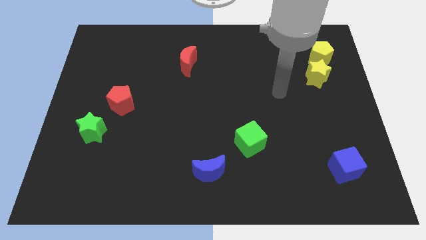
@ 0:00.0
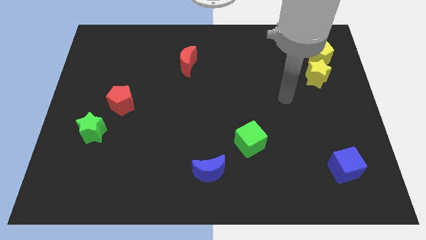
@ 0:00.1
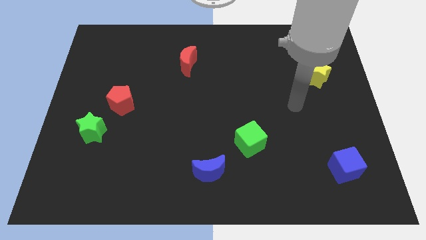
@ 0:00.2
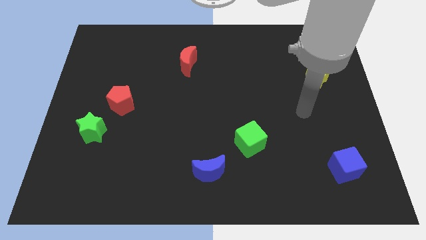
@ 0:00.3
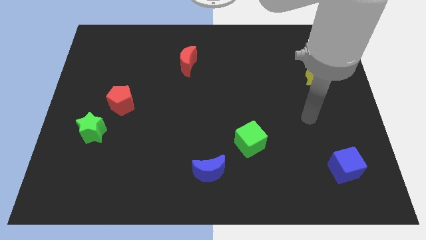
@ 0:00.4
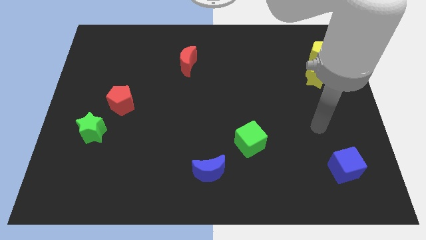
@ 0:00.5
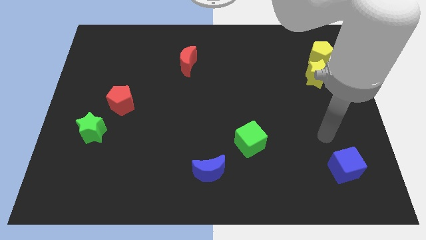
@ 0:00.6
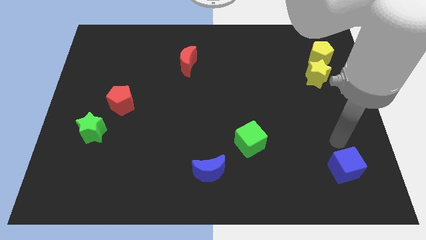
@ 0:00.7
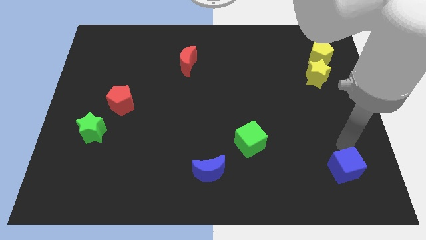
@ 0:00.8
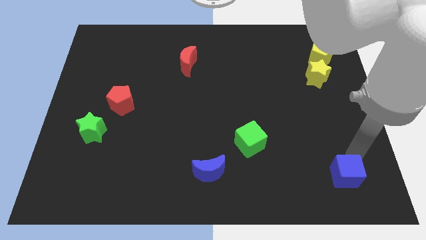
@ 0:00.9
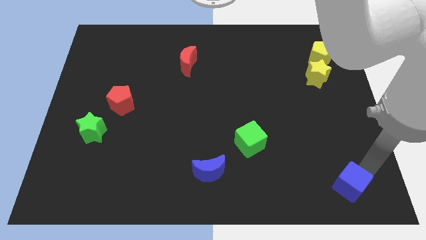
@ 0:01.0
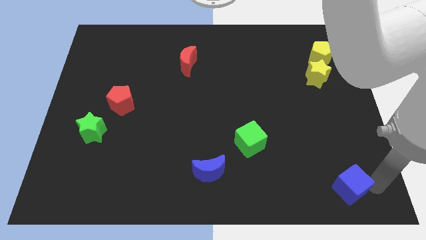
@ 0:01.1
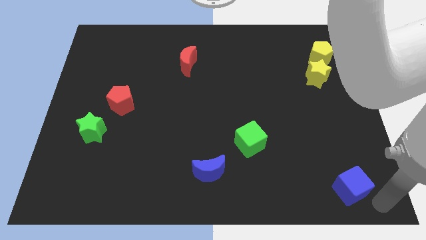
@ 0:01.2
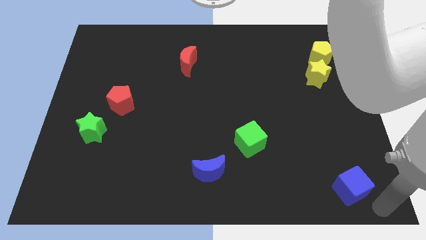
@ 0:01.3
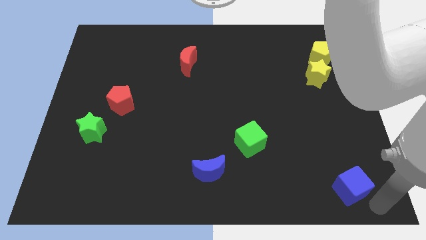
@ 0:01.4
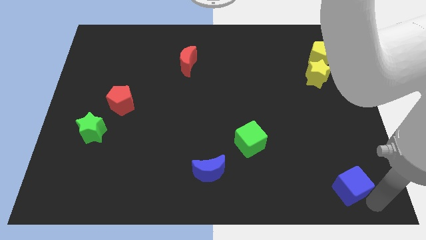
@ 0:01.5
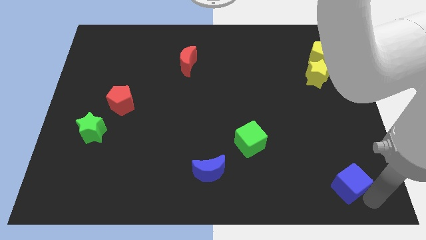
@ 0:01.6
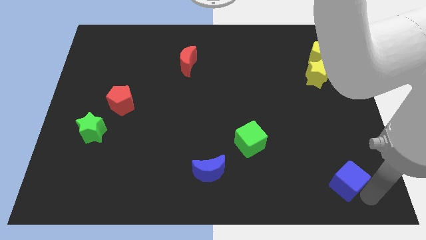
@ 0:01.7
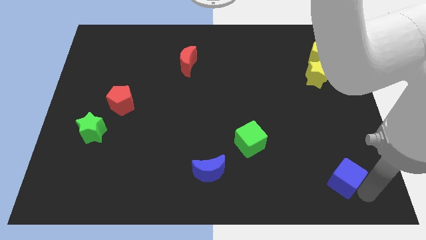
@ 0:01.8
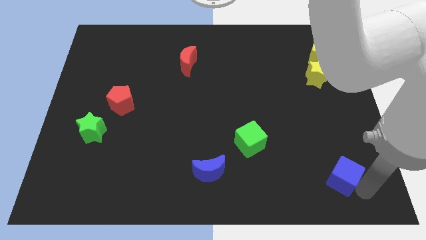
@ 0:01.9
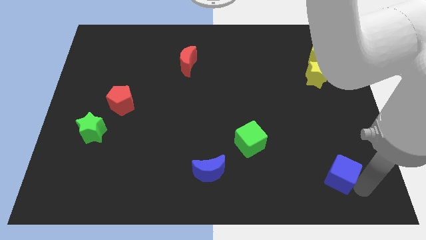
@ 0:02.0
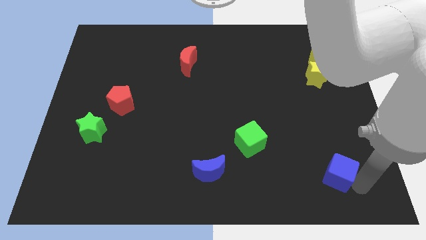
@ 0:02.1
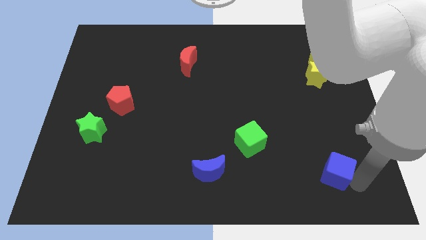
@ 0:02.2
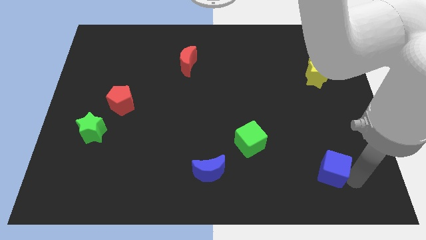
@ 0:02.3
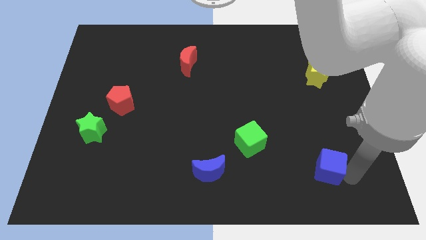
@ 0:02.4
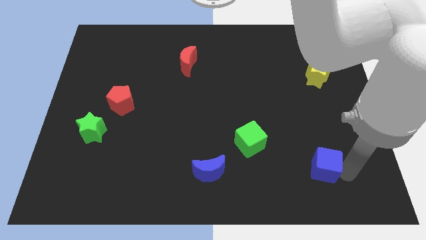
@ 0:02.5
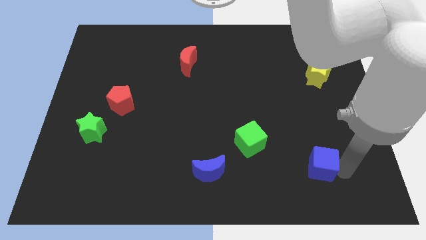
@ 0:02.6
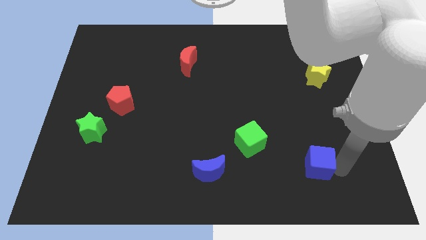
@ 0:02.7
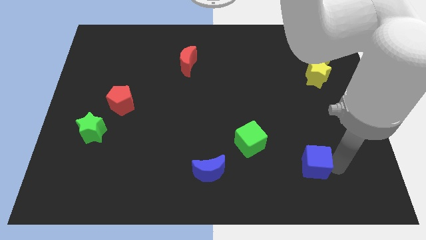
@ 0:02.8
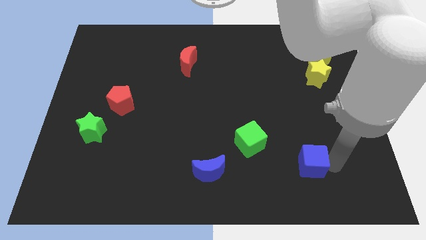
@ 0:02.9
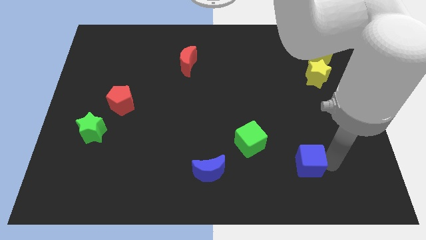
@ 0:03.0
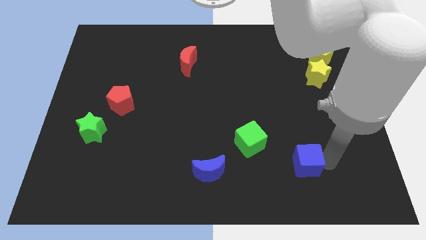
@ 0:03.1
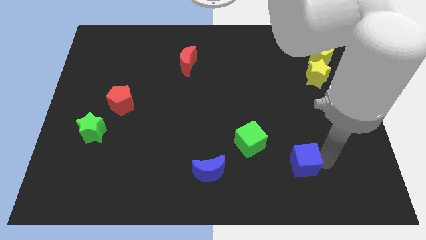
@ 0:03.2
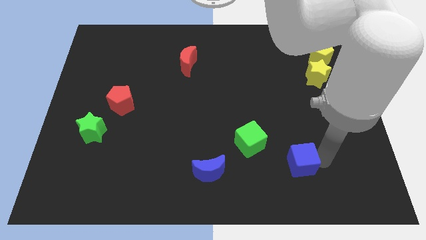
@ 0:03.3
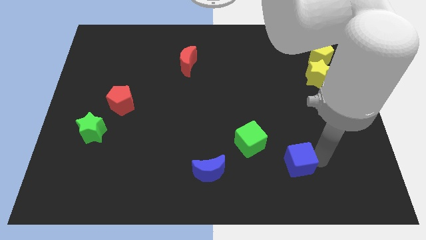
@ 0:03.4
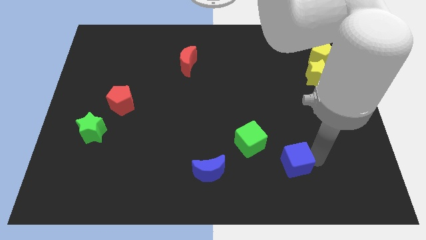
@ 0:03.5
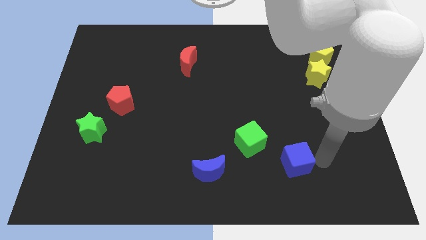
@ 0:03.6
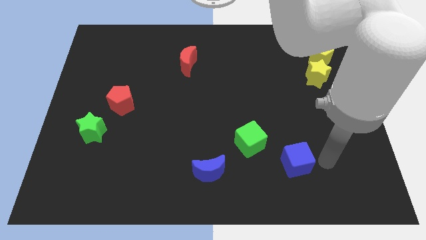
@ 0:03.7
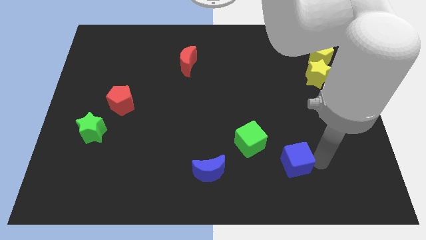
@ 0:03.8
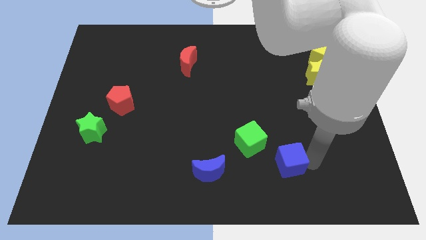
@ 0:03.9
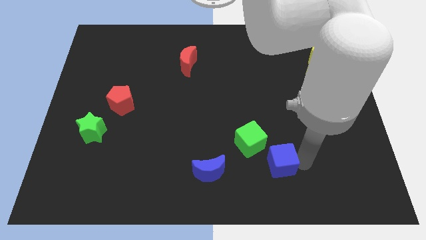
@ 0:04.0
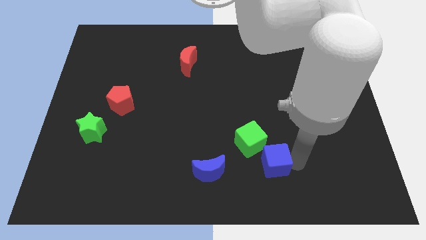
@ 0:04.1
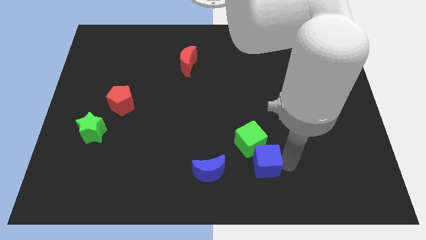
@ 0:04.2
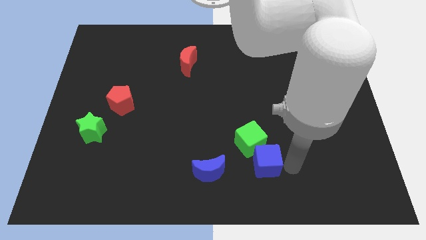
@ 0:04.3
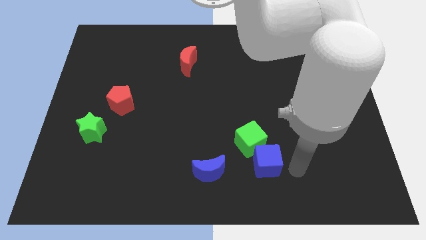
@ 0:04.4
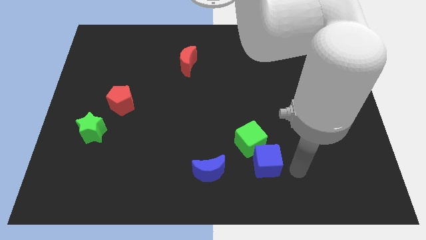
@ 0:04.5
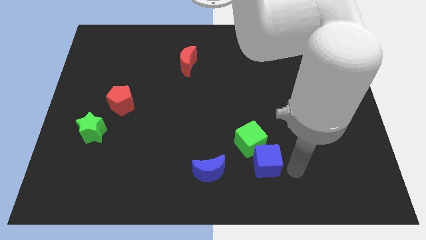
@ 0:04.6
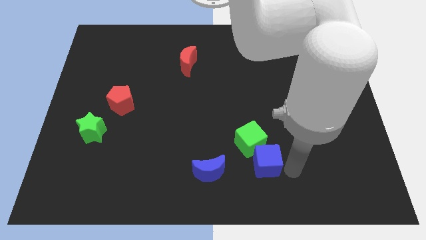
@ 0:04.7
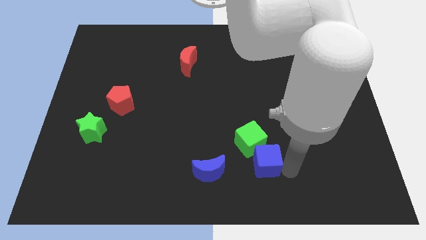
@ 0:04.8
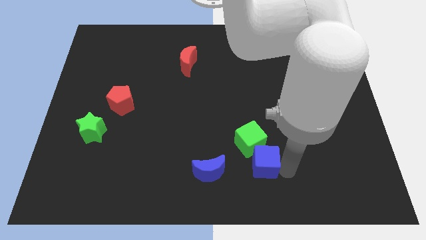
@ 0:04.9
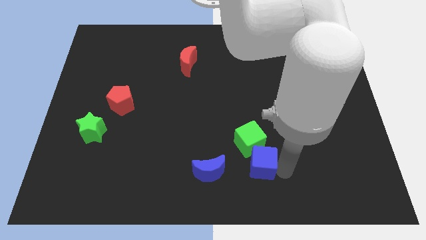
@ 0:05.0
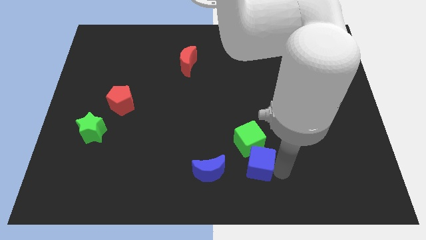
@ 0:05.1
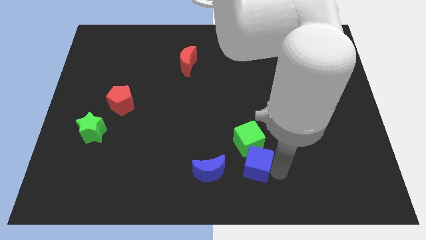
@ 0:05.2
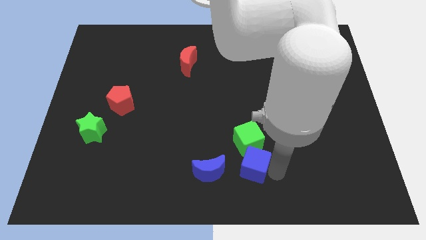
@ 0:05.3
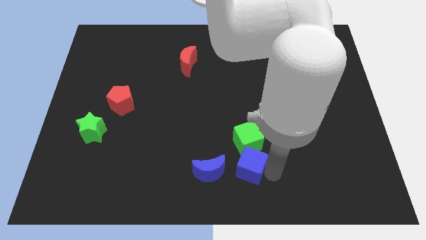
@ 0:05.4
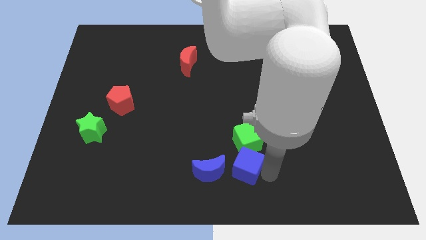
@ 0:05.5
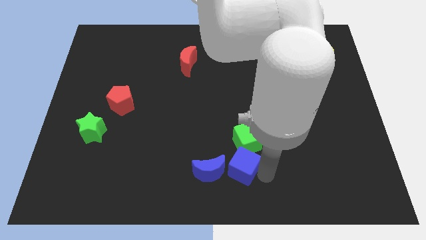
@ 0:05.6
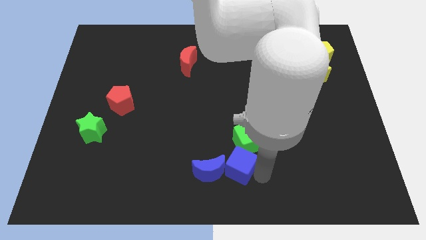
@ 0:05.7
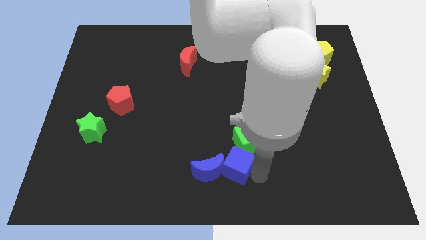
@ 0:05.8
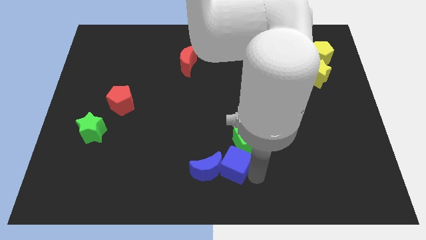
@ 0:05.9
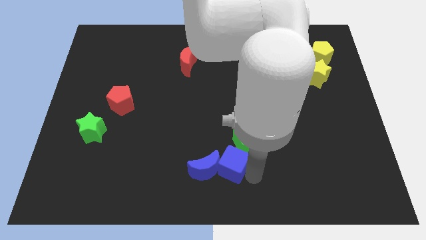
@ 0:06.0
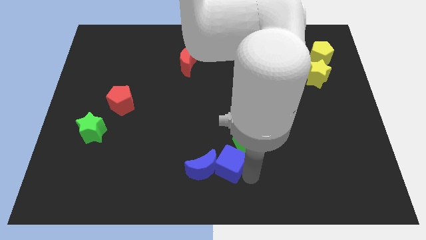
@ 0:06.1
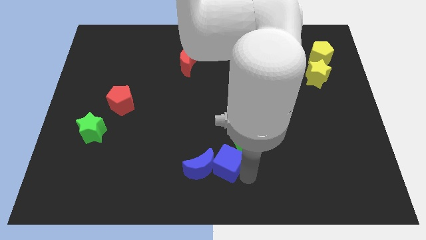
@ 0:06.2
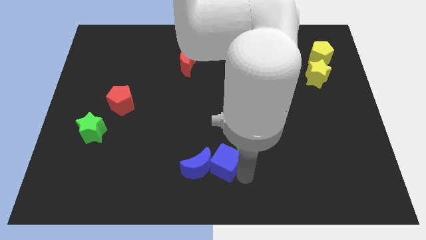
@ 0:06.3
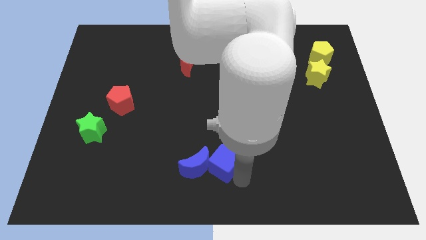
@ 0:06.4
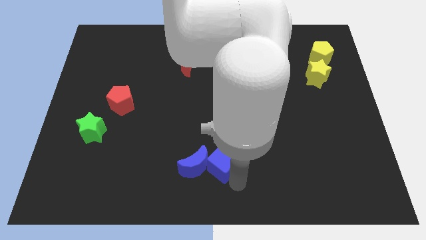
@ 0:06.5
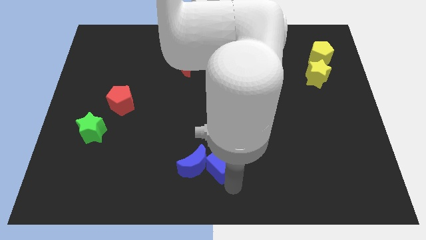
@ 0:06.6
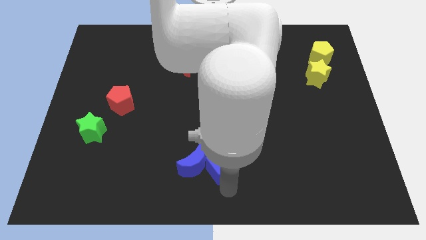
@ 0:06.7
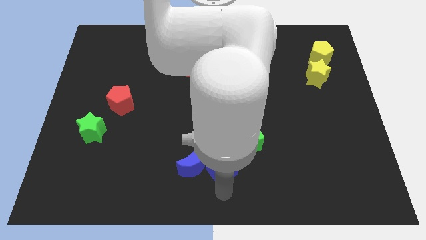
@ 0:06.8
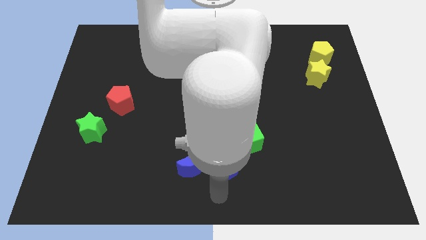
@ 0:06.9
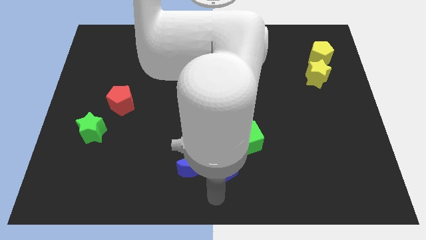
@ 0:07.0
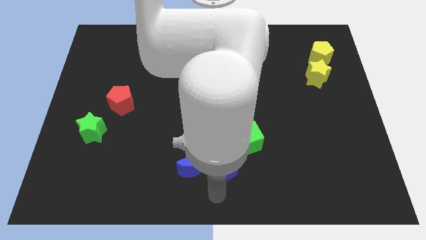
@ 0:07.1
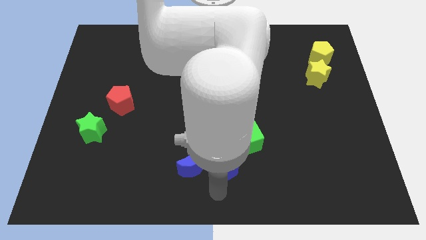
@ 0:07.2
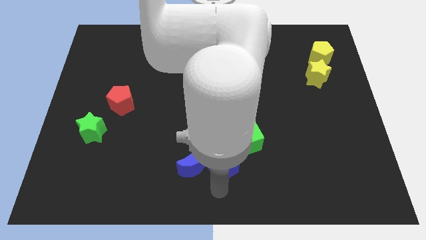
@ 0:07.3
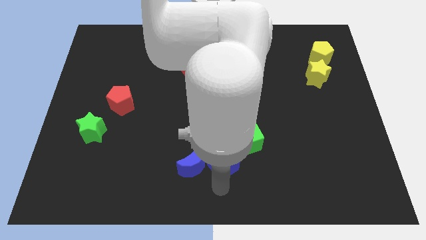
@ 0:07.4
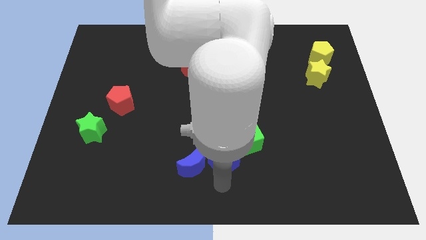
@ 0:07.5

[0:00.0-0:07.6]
slide the blue cube left of the green cube

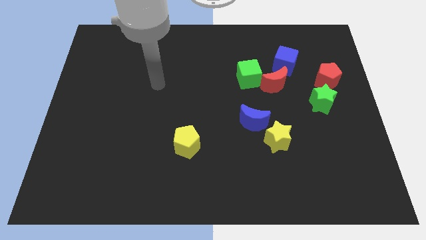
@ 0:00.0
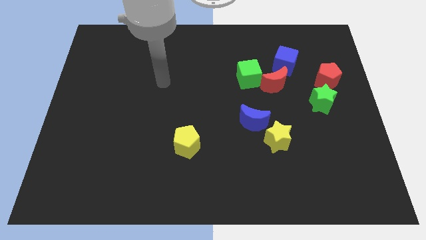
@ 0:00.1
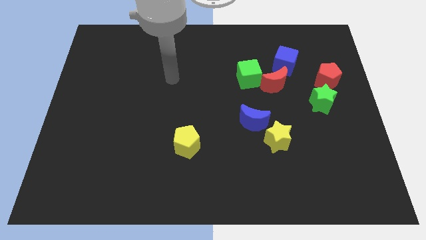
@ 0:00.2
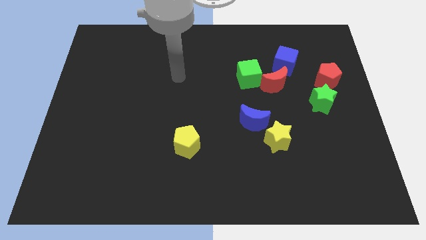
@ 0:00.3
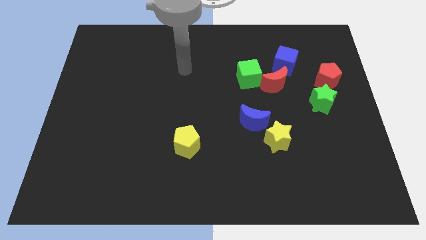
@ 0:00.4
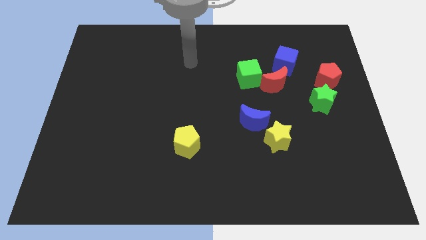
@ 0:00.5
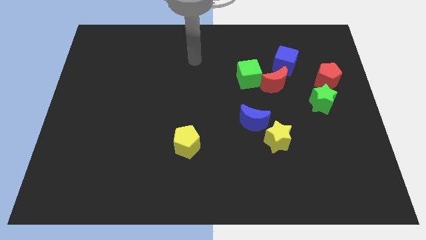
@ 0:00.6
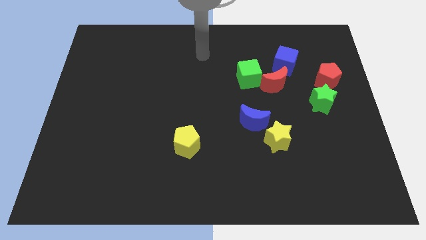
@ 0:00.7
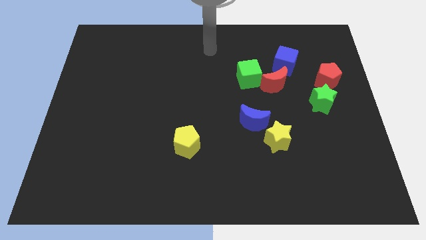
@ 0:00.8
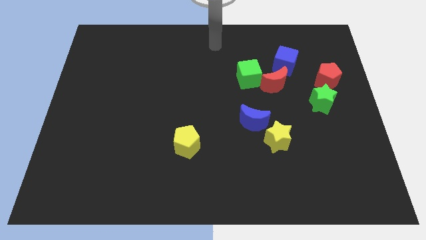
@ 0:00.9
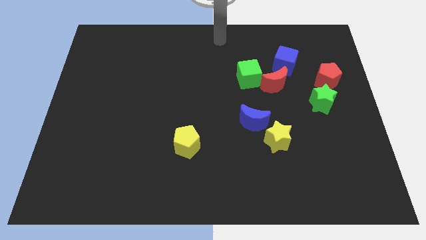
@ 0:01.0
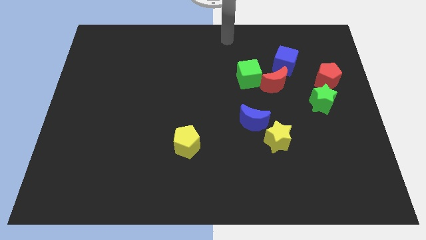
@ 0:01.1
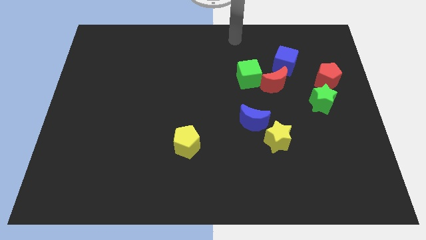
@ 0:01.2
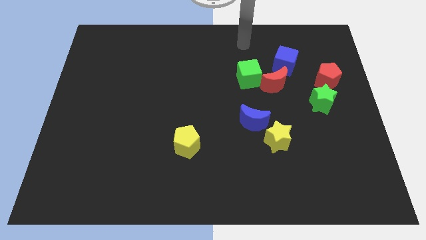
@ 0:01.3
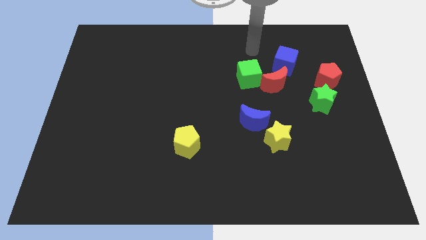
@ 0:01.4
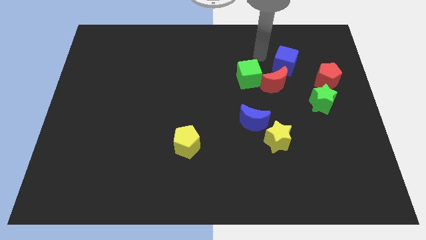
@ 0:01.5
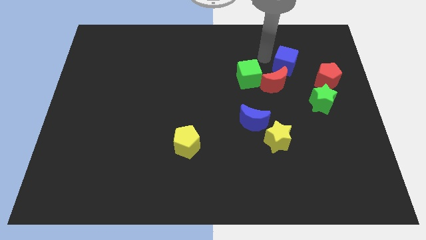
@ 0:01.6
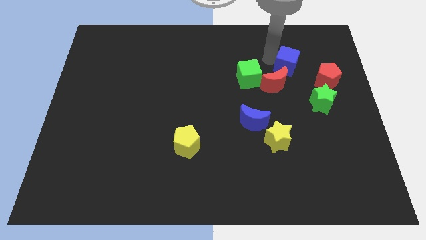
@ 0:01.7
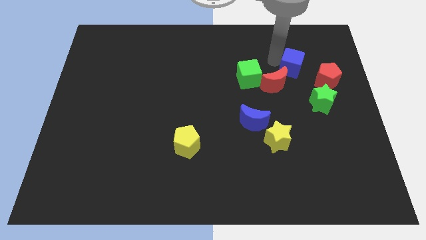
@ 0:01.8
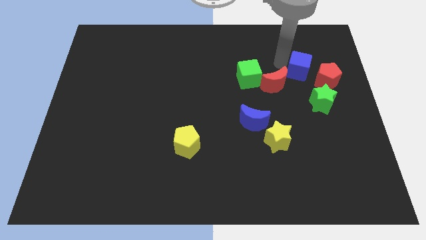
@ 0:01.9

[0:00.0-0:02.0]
put the blue cube to the top side of the green star
